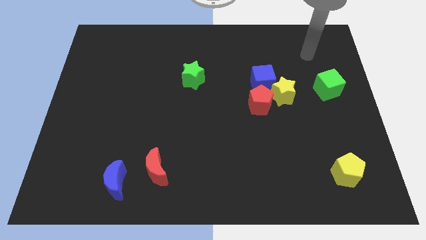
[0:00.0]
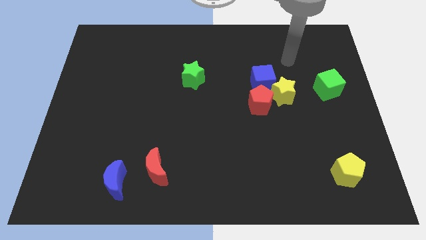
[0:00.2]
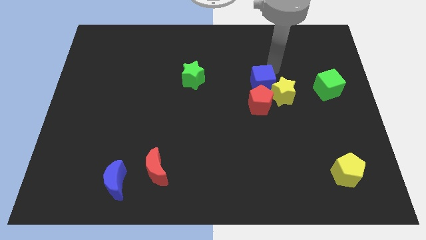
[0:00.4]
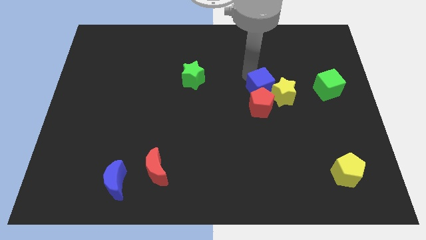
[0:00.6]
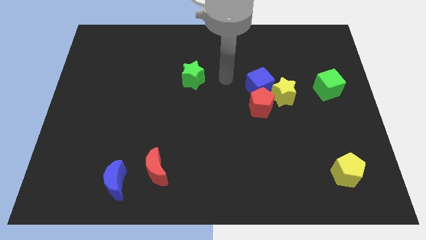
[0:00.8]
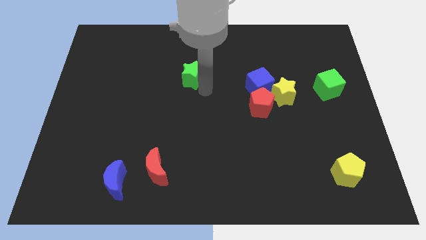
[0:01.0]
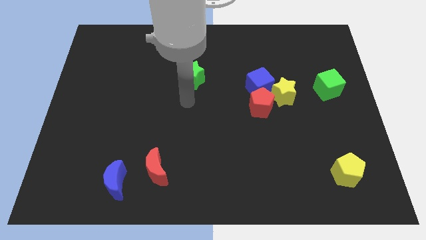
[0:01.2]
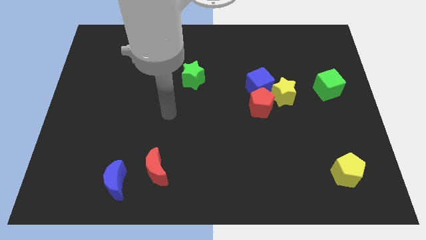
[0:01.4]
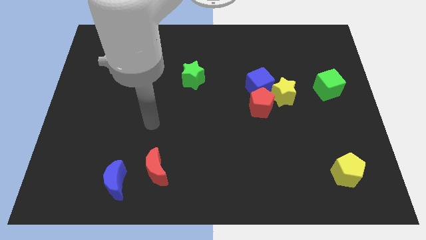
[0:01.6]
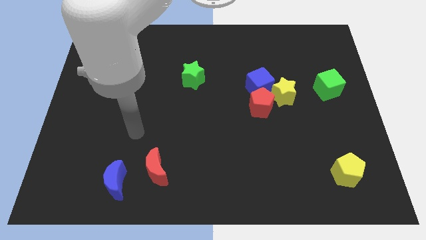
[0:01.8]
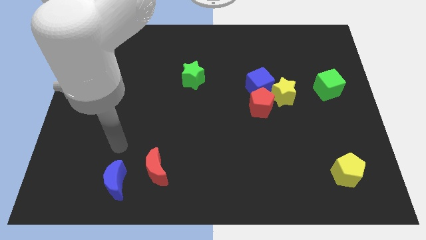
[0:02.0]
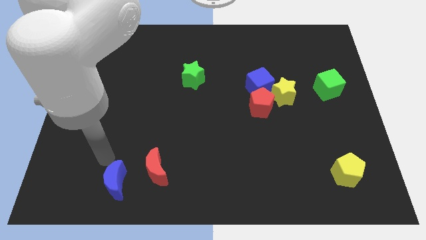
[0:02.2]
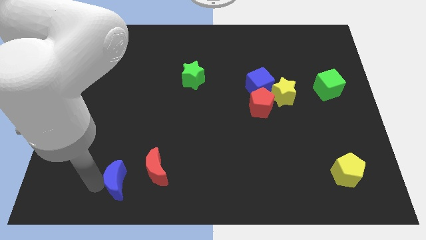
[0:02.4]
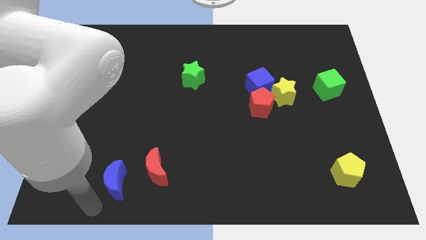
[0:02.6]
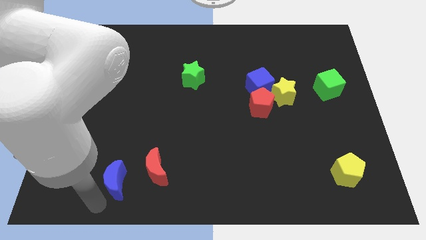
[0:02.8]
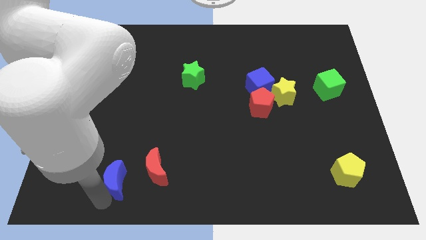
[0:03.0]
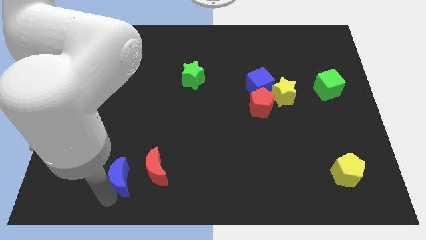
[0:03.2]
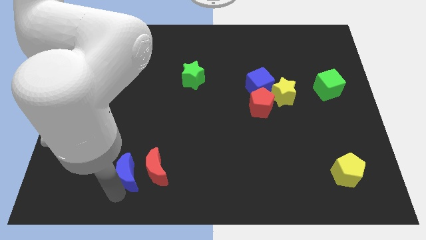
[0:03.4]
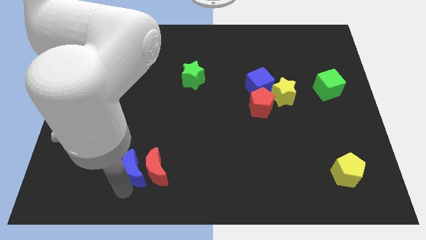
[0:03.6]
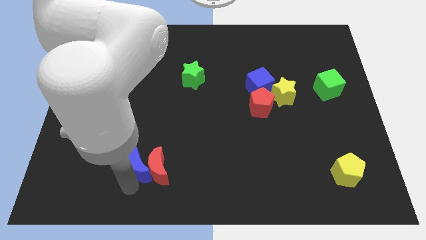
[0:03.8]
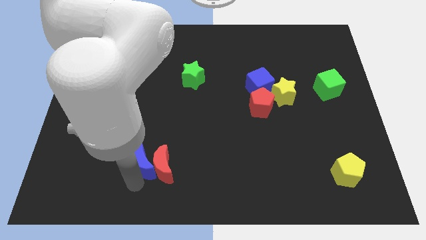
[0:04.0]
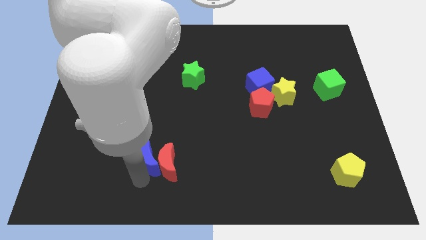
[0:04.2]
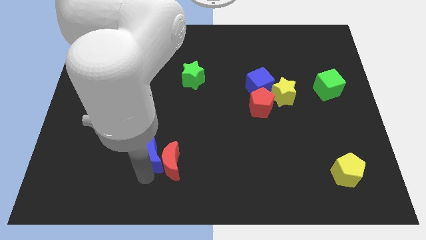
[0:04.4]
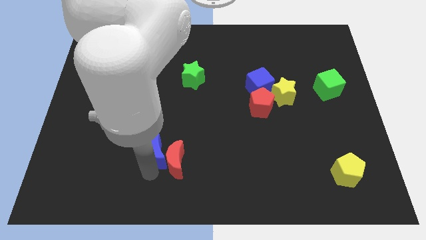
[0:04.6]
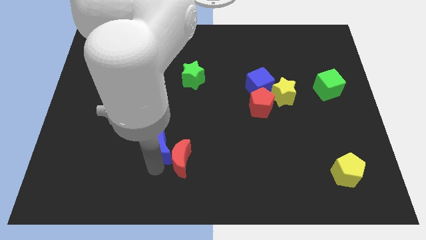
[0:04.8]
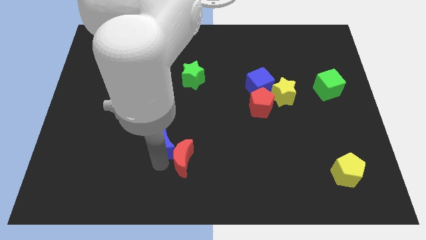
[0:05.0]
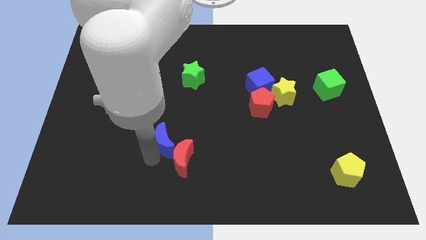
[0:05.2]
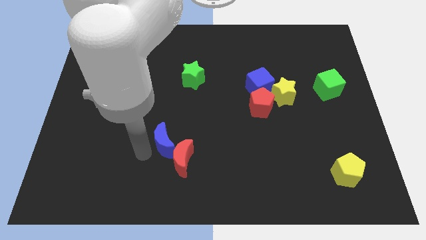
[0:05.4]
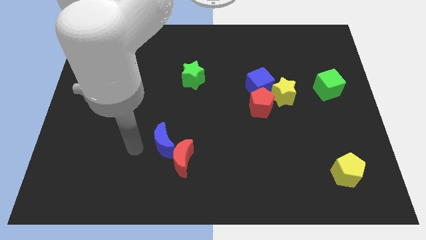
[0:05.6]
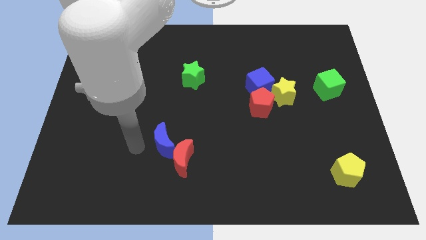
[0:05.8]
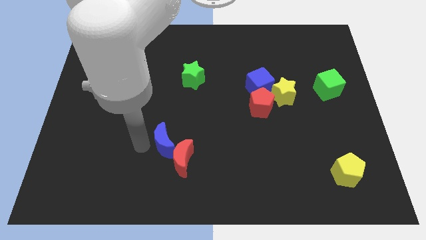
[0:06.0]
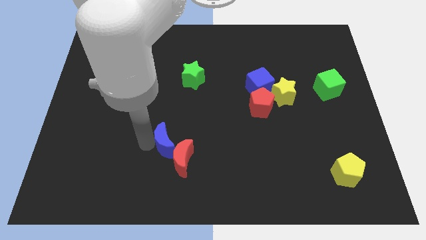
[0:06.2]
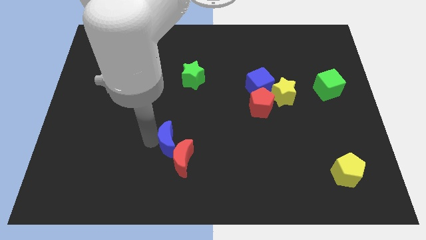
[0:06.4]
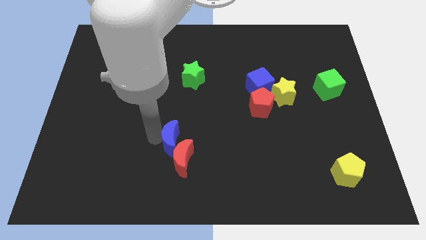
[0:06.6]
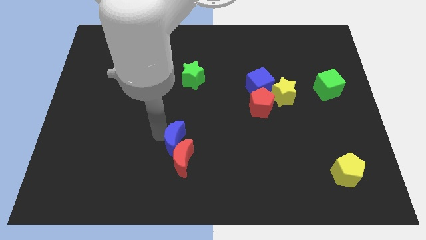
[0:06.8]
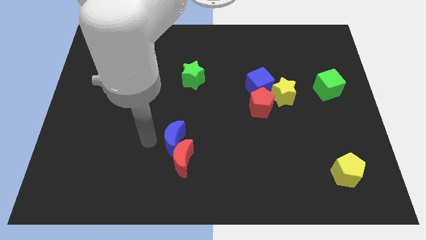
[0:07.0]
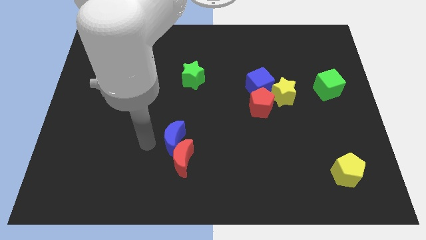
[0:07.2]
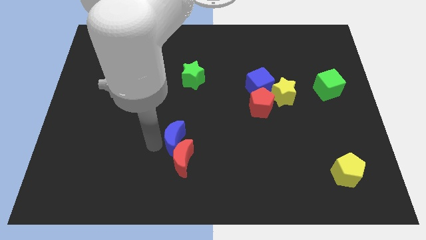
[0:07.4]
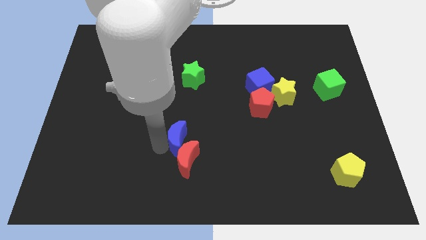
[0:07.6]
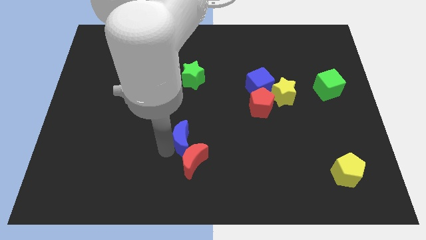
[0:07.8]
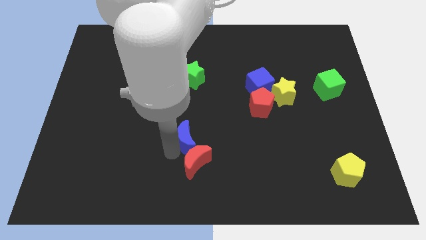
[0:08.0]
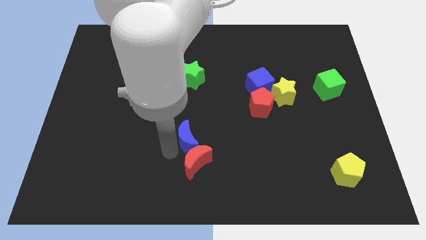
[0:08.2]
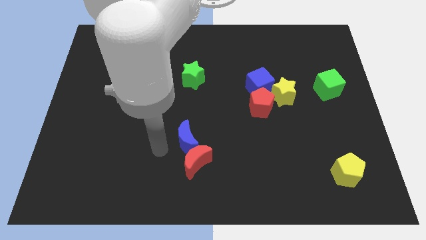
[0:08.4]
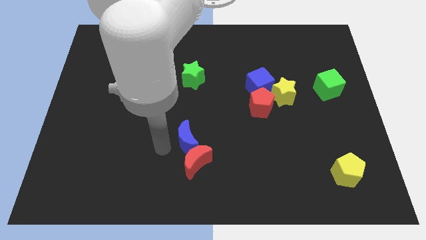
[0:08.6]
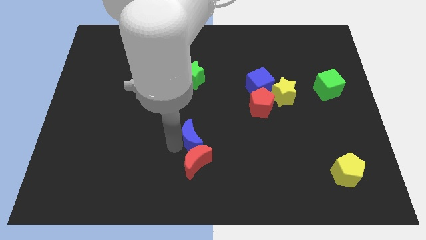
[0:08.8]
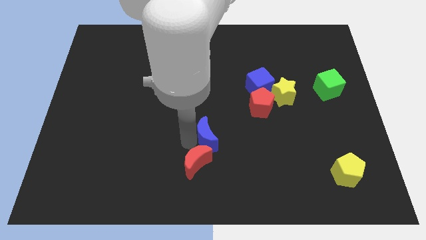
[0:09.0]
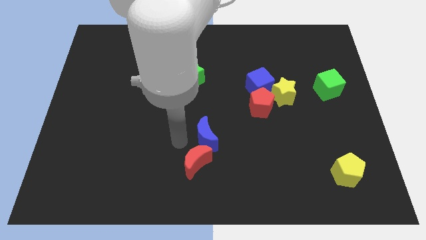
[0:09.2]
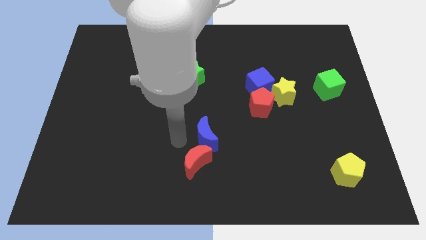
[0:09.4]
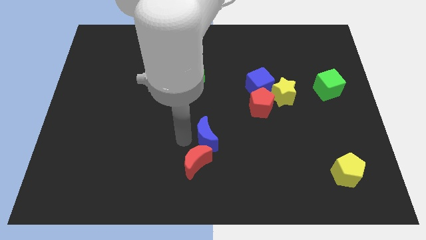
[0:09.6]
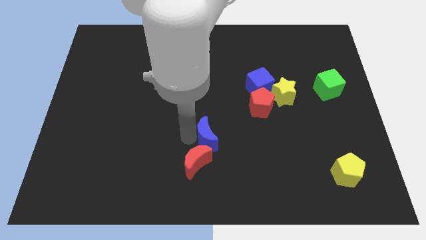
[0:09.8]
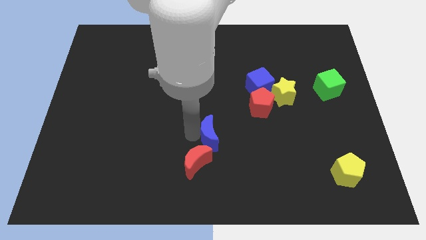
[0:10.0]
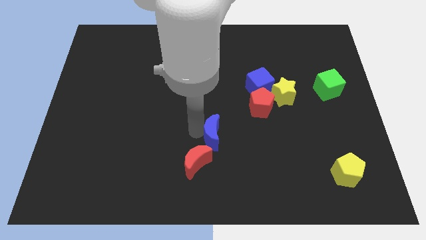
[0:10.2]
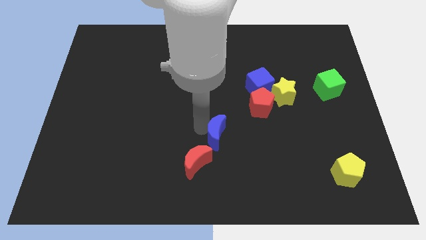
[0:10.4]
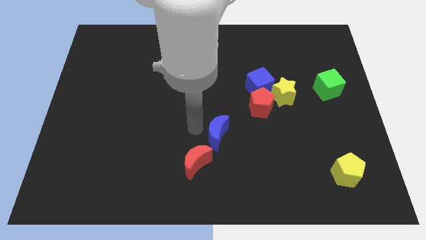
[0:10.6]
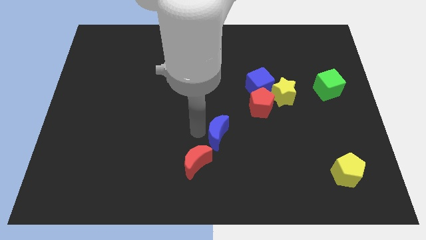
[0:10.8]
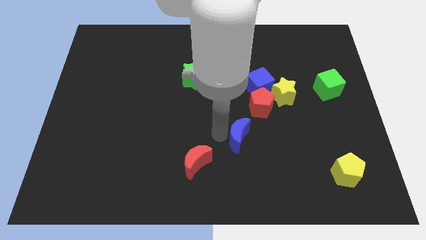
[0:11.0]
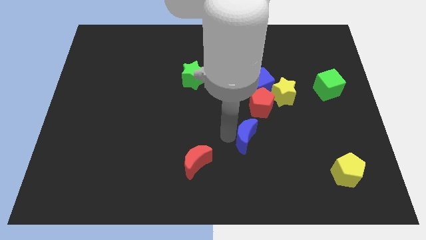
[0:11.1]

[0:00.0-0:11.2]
slide the blue moon to the bottom of the red pentagon

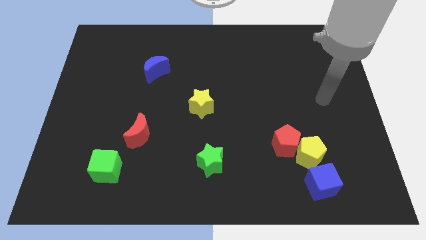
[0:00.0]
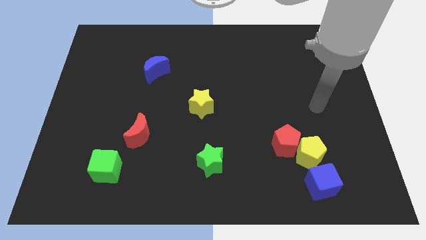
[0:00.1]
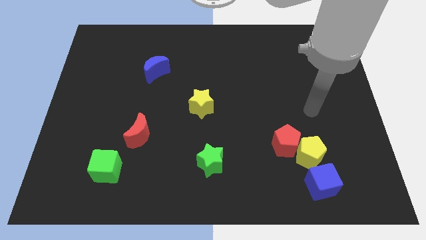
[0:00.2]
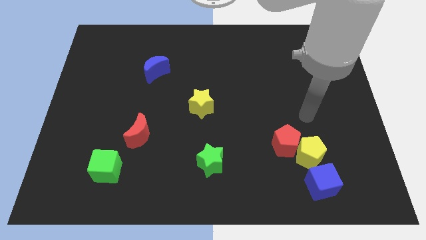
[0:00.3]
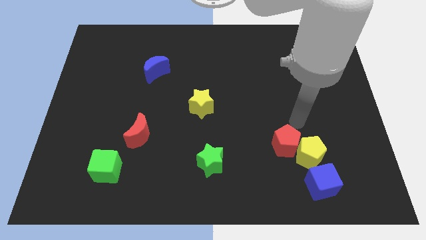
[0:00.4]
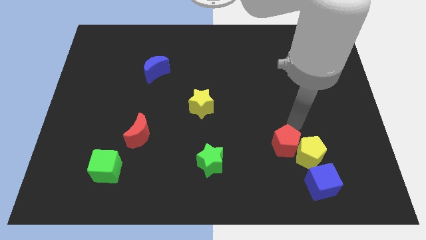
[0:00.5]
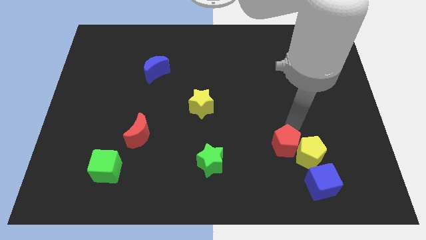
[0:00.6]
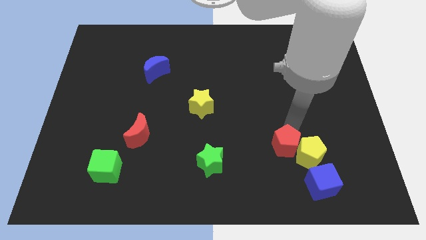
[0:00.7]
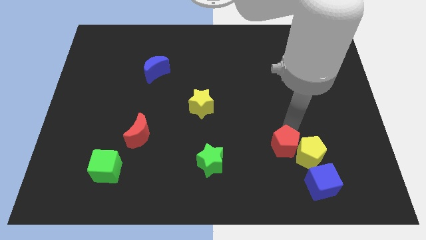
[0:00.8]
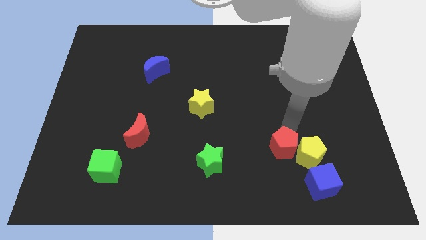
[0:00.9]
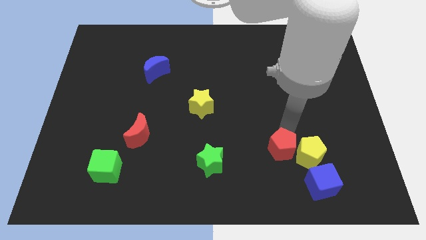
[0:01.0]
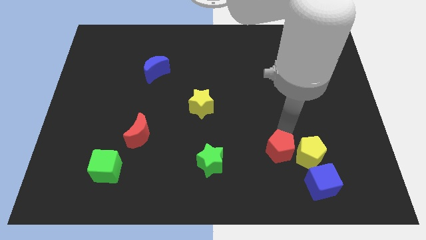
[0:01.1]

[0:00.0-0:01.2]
move the red pentagon just right of the green star

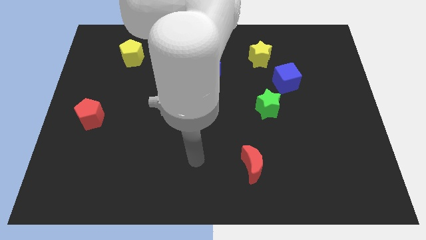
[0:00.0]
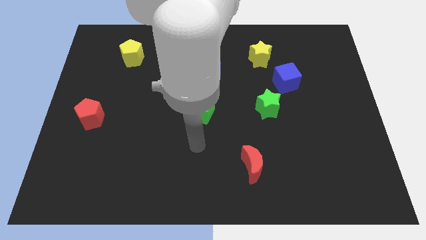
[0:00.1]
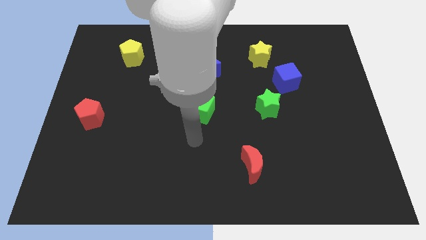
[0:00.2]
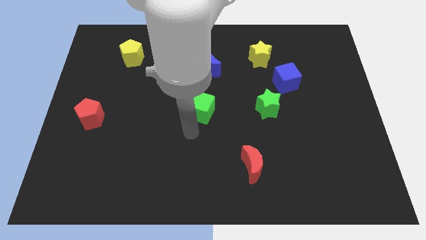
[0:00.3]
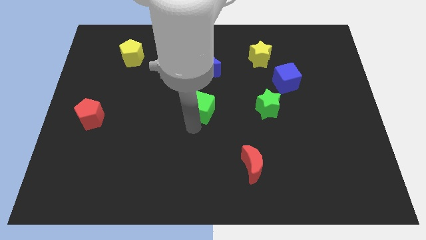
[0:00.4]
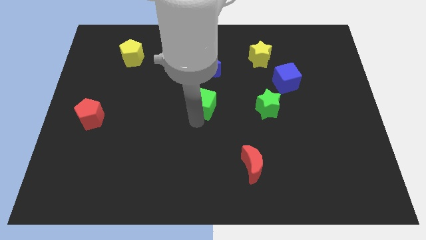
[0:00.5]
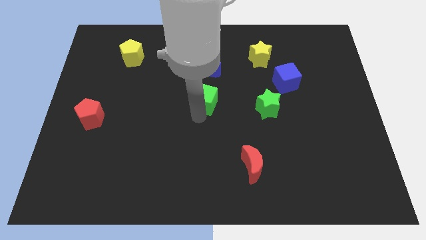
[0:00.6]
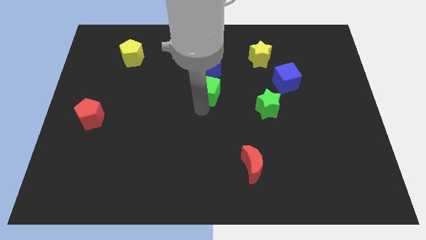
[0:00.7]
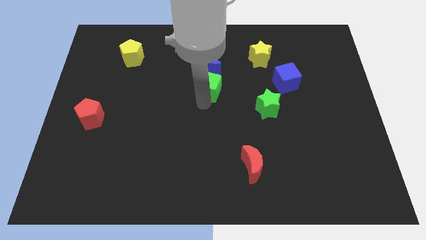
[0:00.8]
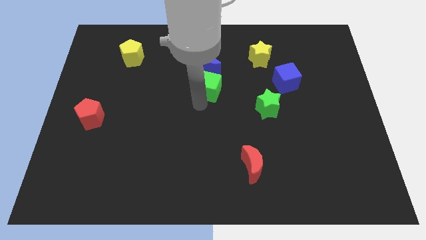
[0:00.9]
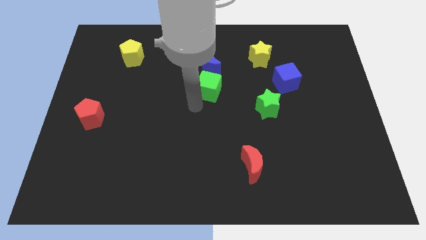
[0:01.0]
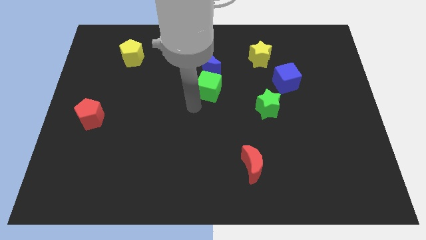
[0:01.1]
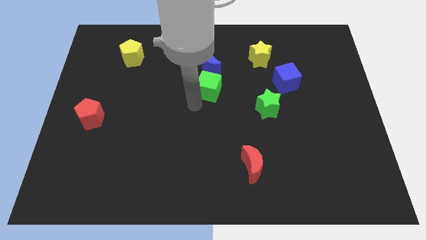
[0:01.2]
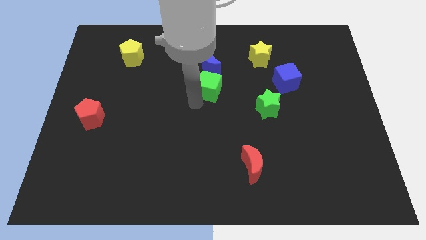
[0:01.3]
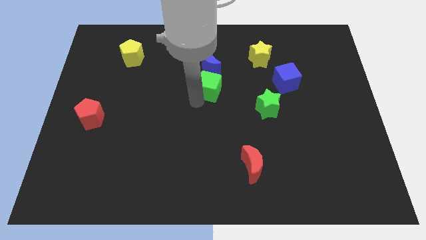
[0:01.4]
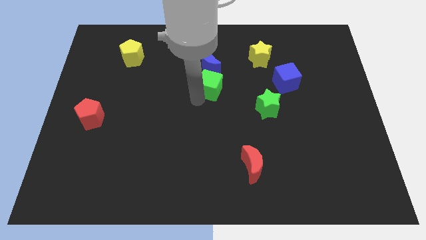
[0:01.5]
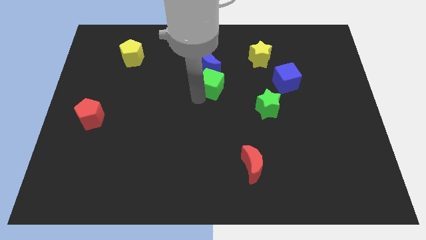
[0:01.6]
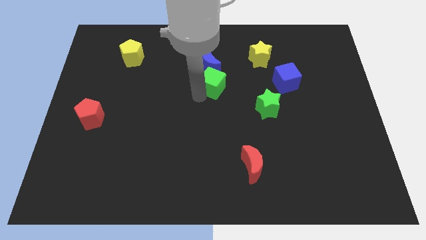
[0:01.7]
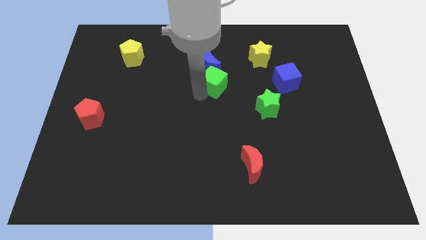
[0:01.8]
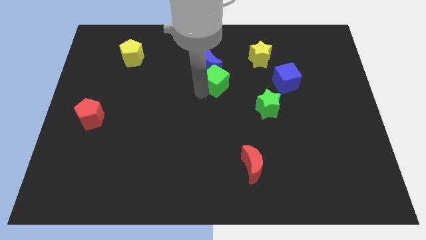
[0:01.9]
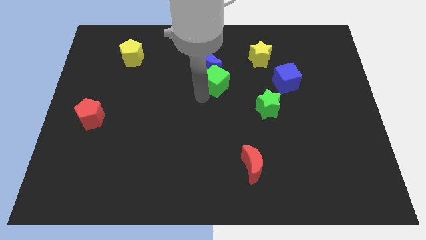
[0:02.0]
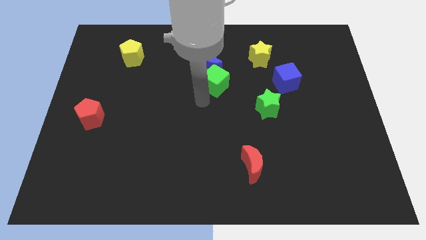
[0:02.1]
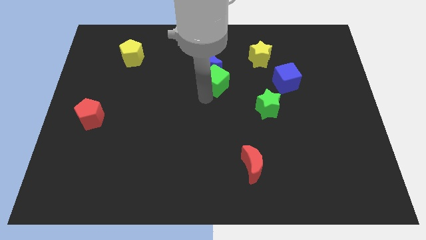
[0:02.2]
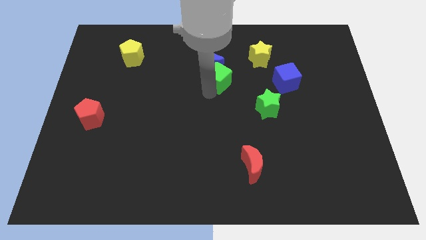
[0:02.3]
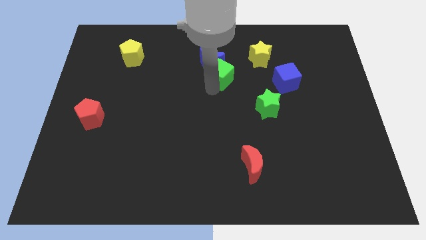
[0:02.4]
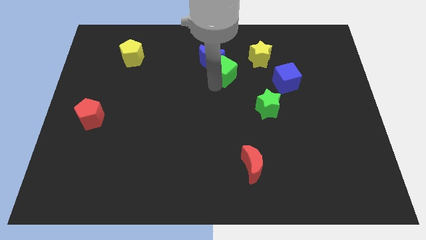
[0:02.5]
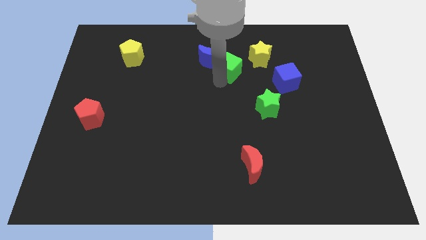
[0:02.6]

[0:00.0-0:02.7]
slide the green cube just left of the yellow star
